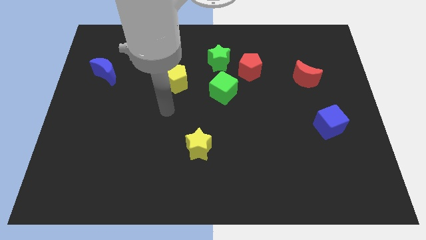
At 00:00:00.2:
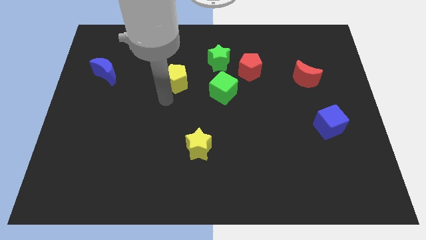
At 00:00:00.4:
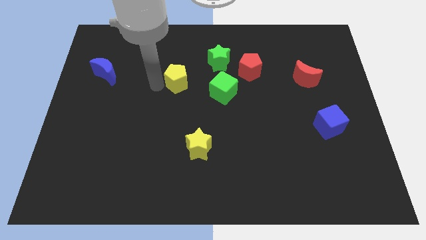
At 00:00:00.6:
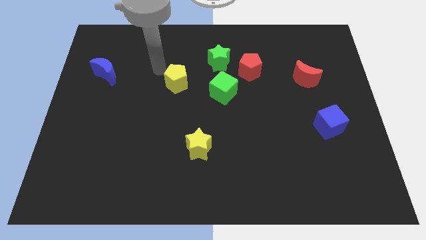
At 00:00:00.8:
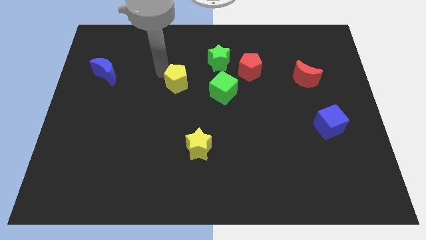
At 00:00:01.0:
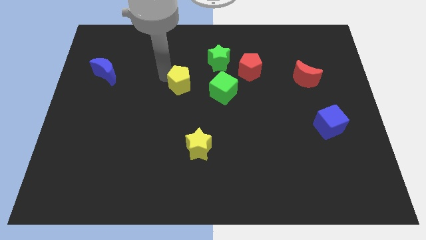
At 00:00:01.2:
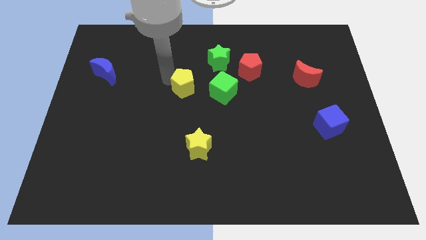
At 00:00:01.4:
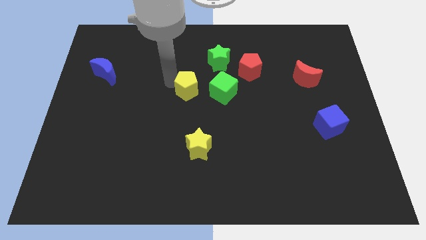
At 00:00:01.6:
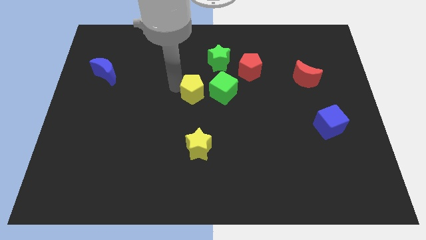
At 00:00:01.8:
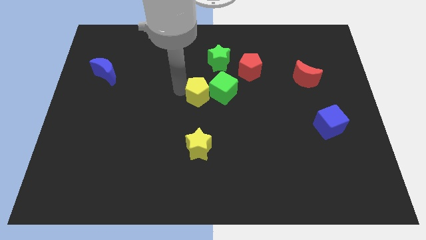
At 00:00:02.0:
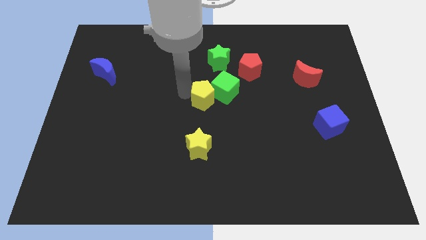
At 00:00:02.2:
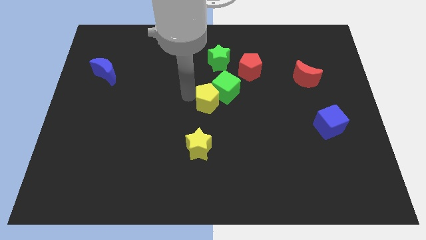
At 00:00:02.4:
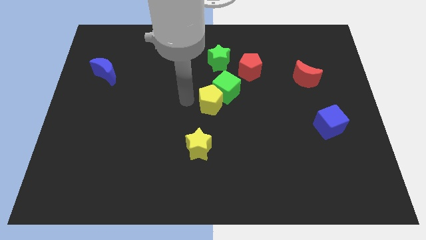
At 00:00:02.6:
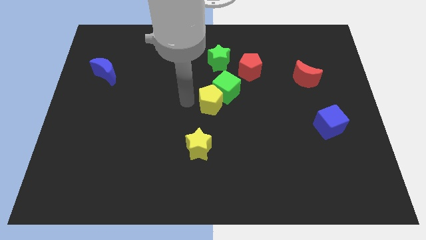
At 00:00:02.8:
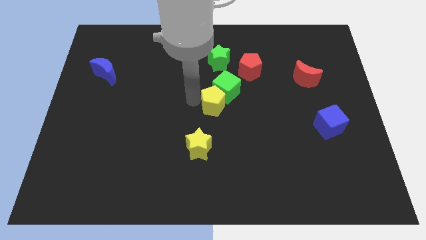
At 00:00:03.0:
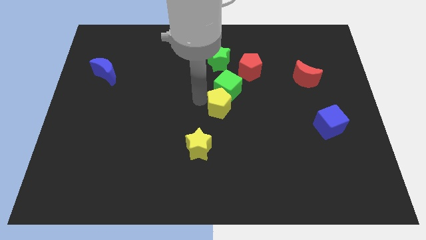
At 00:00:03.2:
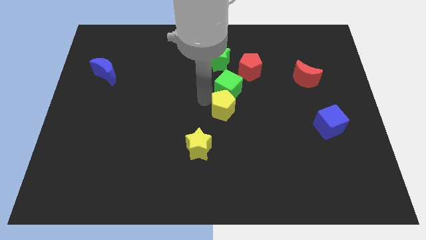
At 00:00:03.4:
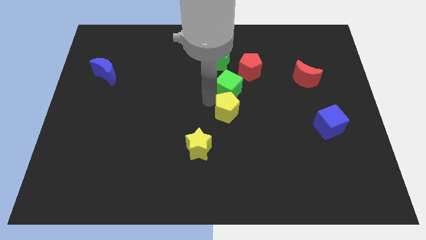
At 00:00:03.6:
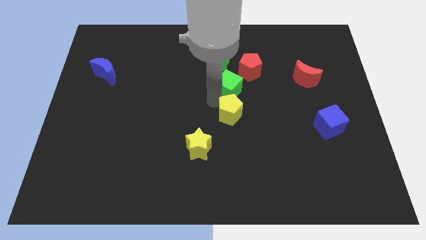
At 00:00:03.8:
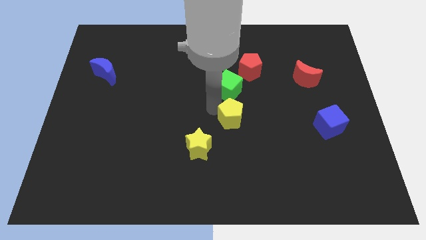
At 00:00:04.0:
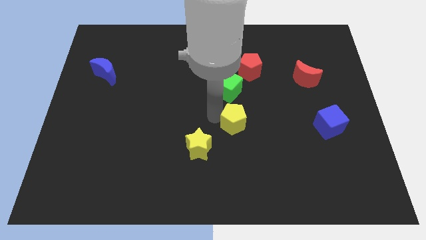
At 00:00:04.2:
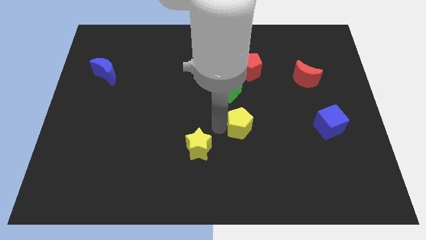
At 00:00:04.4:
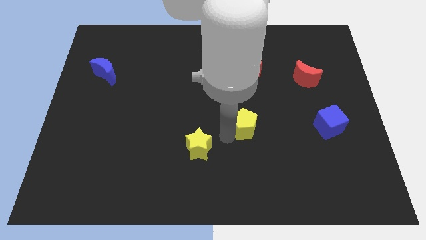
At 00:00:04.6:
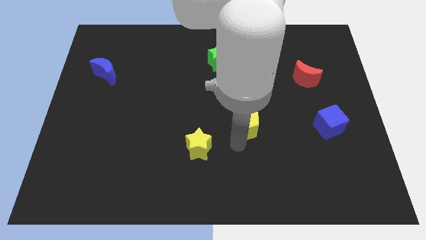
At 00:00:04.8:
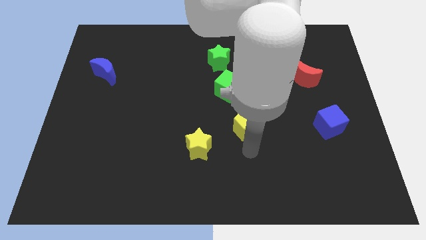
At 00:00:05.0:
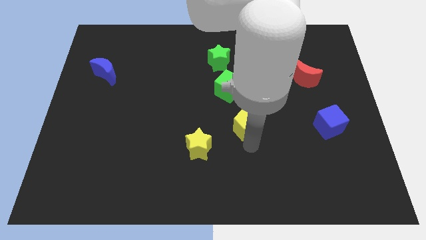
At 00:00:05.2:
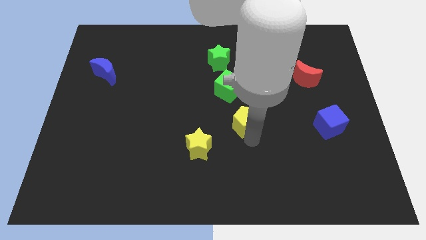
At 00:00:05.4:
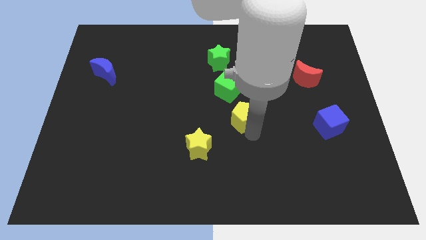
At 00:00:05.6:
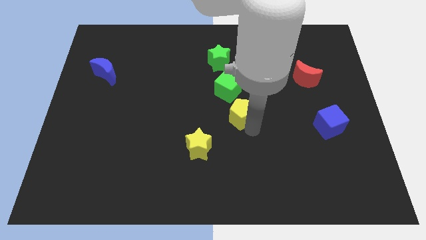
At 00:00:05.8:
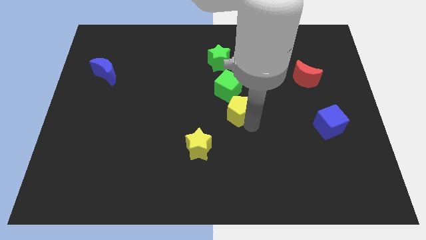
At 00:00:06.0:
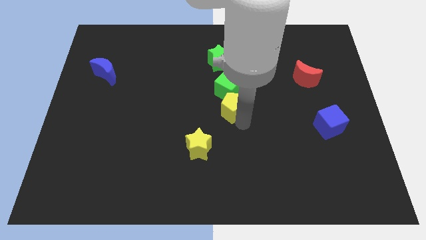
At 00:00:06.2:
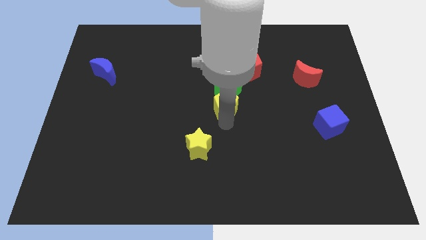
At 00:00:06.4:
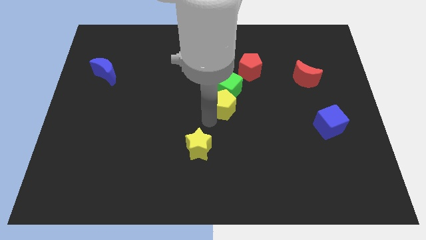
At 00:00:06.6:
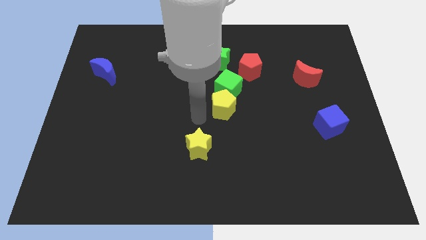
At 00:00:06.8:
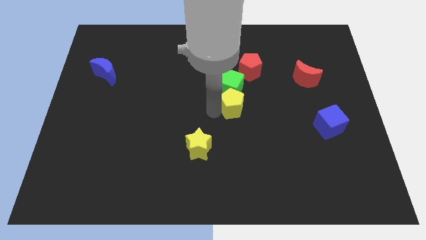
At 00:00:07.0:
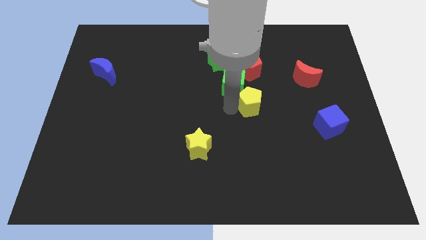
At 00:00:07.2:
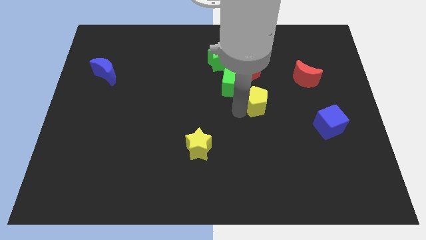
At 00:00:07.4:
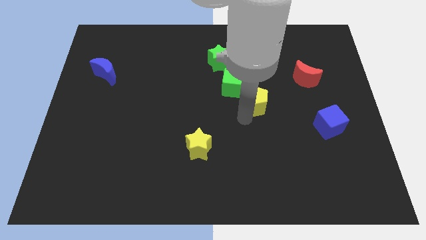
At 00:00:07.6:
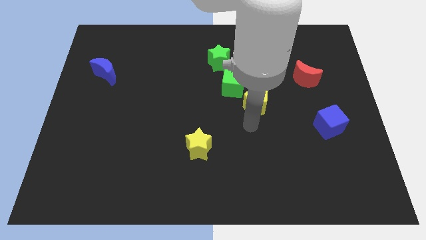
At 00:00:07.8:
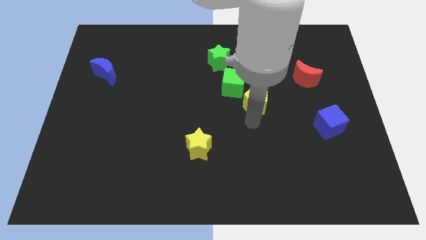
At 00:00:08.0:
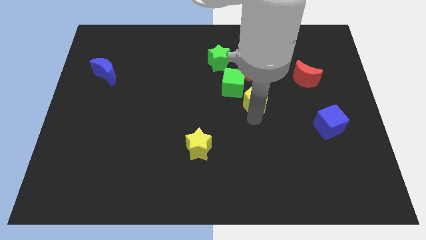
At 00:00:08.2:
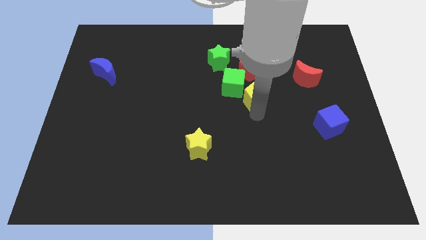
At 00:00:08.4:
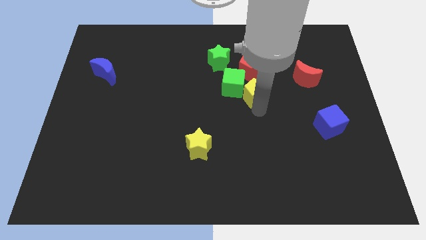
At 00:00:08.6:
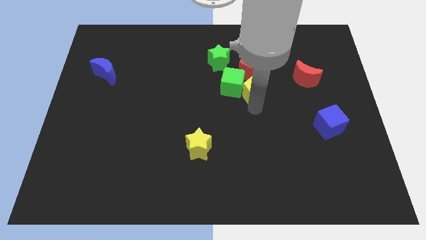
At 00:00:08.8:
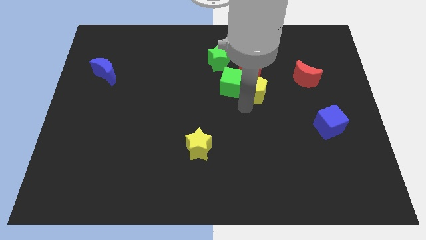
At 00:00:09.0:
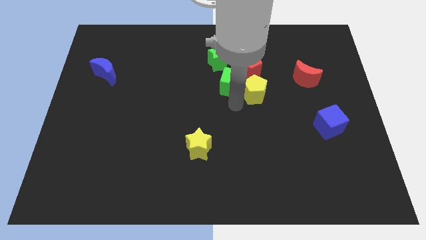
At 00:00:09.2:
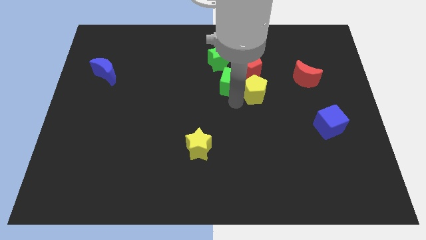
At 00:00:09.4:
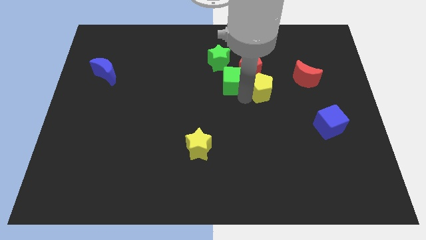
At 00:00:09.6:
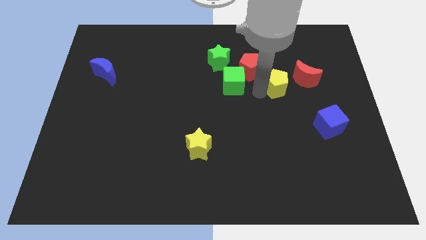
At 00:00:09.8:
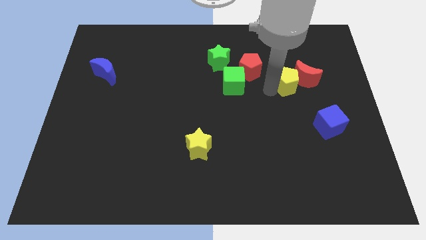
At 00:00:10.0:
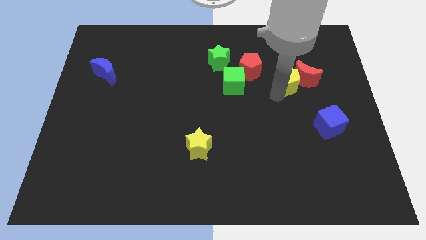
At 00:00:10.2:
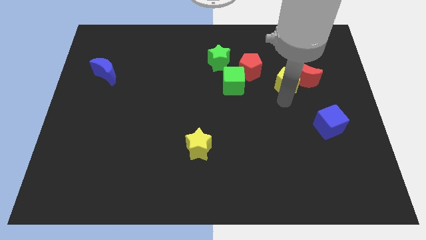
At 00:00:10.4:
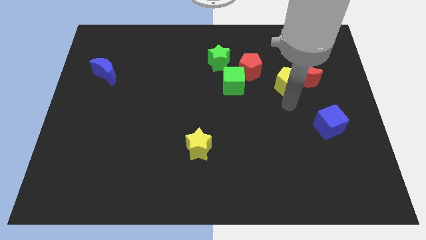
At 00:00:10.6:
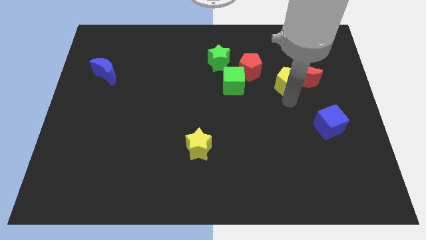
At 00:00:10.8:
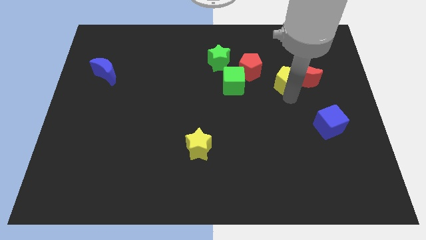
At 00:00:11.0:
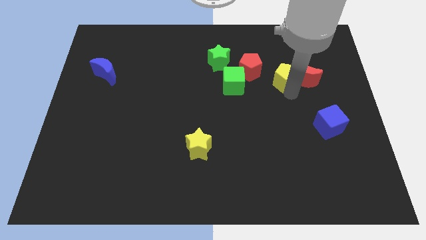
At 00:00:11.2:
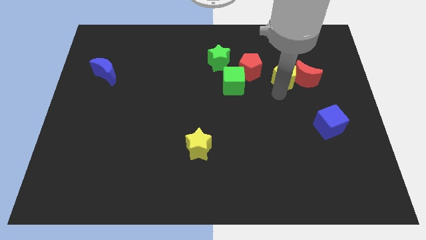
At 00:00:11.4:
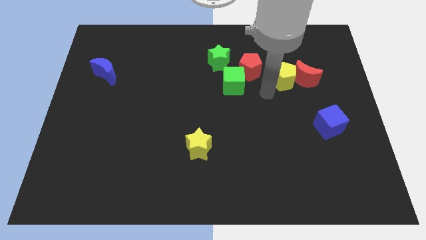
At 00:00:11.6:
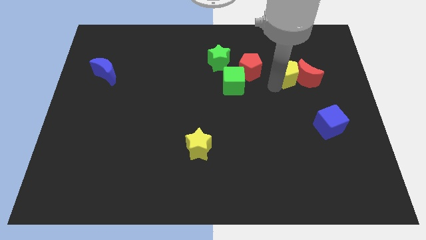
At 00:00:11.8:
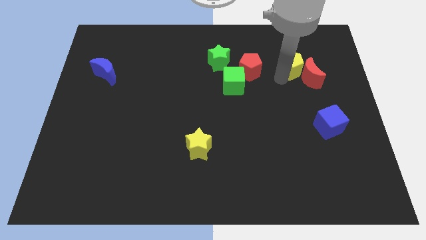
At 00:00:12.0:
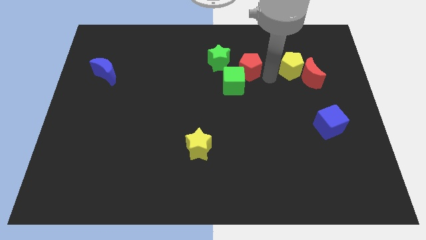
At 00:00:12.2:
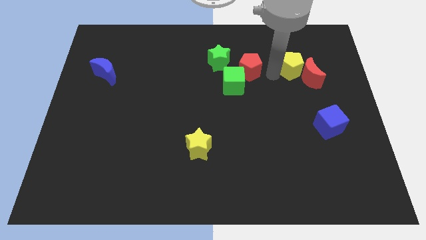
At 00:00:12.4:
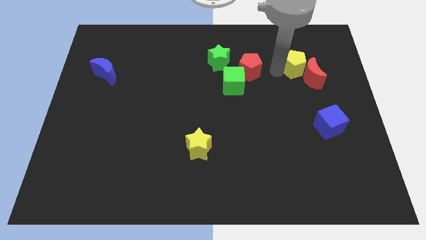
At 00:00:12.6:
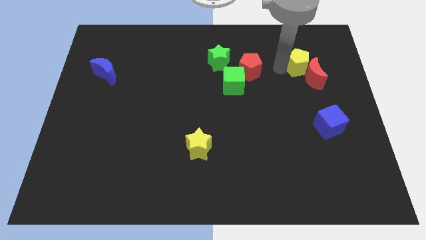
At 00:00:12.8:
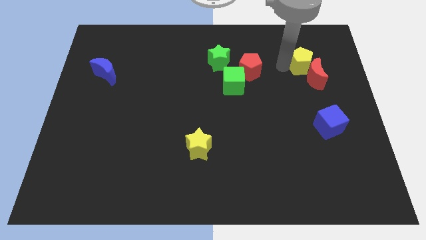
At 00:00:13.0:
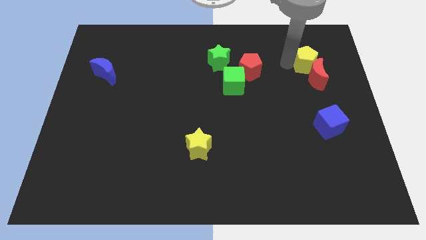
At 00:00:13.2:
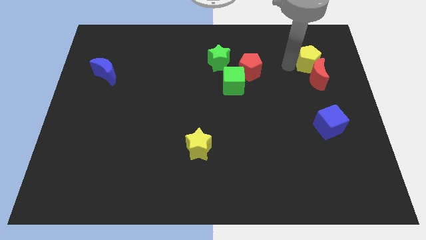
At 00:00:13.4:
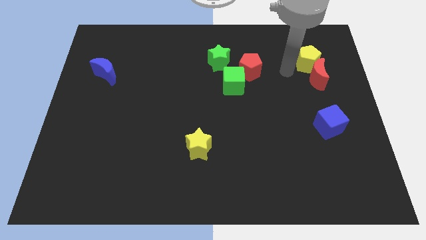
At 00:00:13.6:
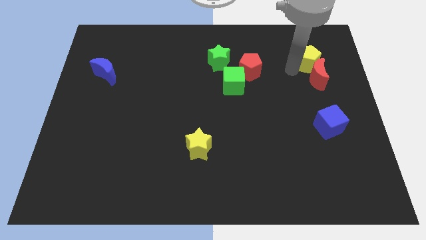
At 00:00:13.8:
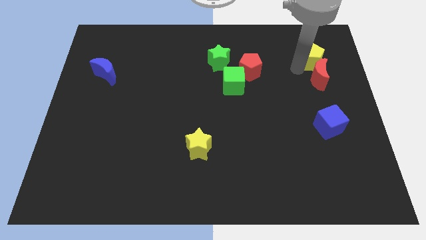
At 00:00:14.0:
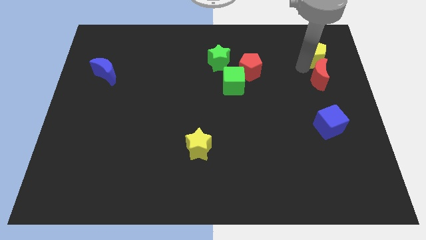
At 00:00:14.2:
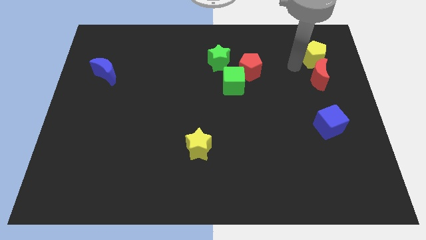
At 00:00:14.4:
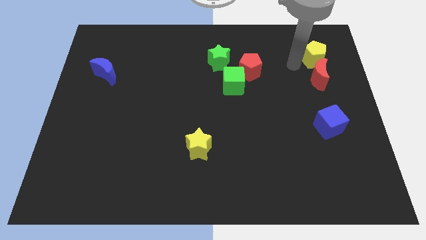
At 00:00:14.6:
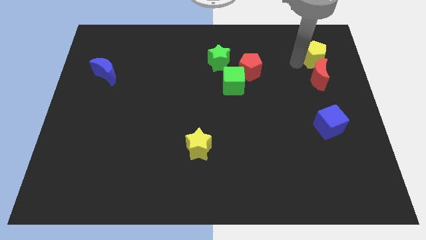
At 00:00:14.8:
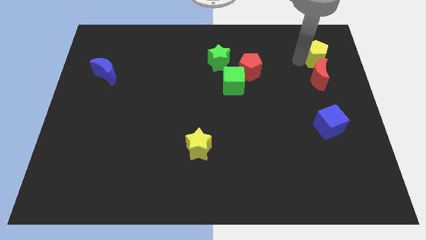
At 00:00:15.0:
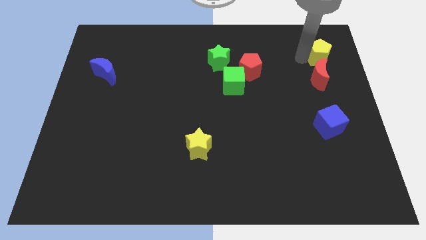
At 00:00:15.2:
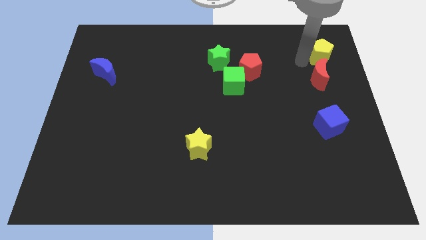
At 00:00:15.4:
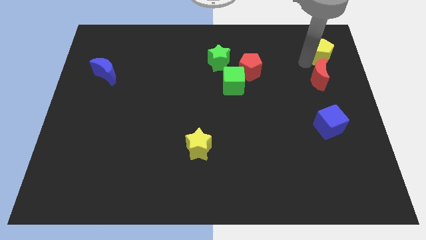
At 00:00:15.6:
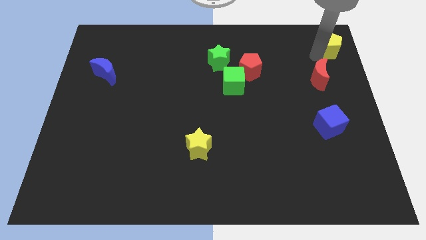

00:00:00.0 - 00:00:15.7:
push the yellow pentagon to the top right corner
